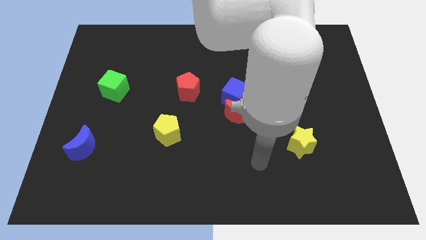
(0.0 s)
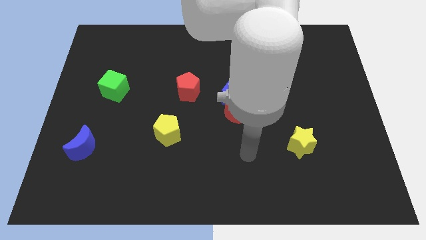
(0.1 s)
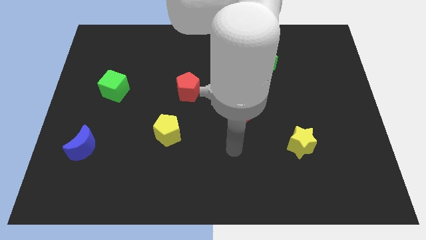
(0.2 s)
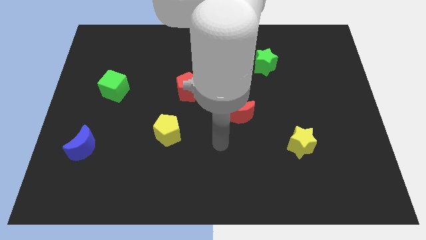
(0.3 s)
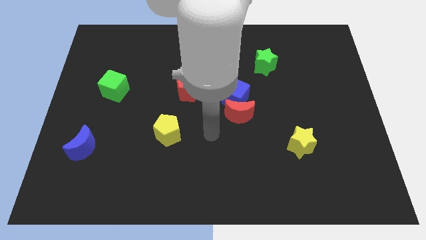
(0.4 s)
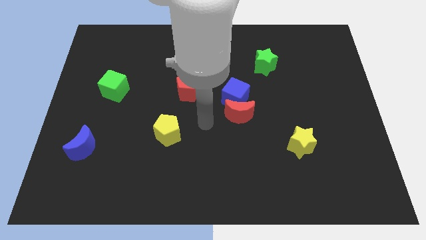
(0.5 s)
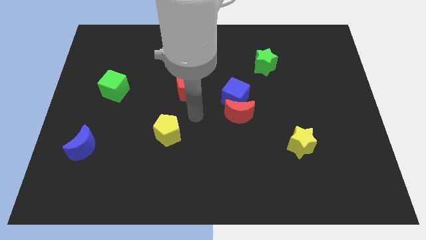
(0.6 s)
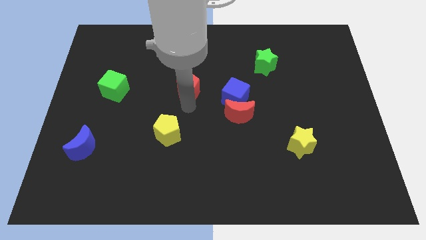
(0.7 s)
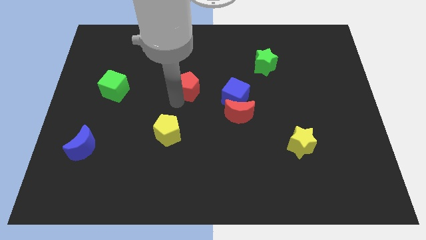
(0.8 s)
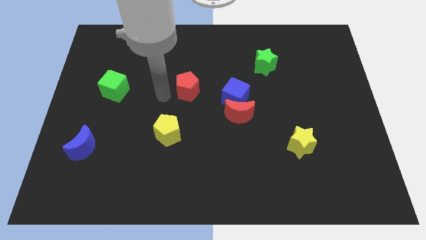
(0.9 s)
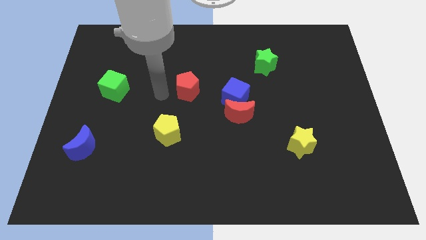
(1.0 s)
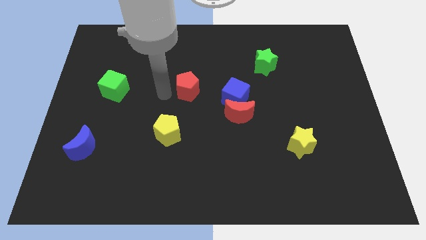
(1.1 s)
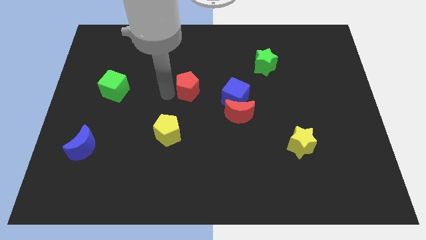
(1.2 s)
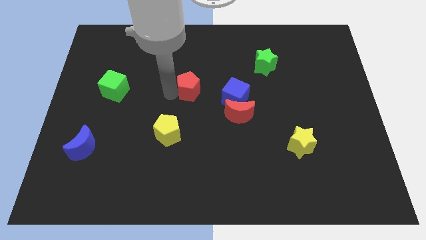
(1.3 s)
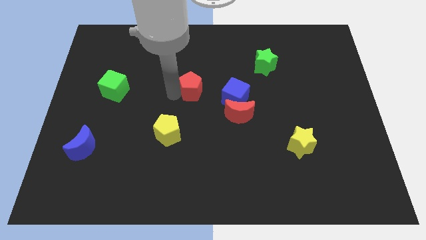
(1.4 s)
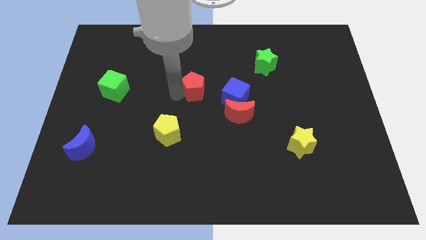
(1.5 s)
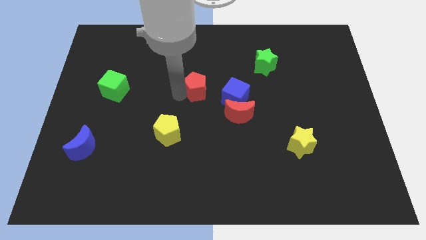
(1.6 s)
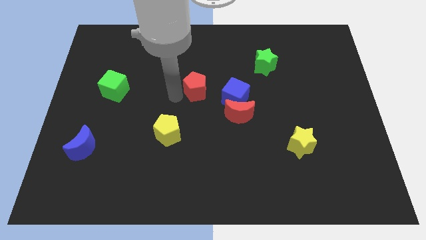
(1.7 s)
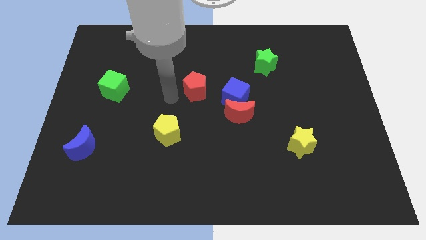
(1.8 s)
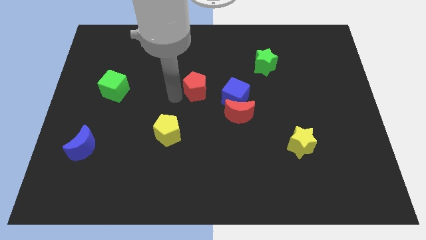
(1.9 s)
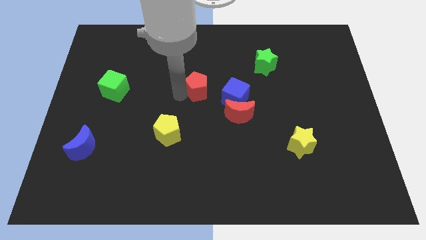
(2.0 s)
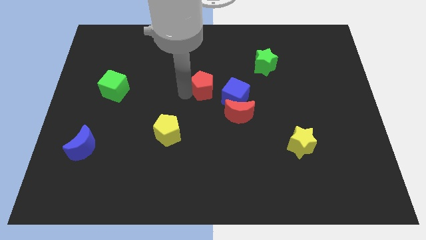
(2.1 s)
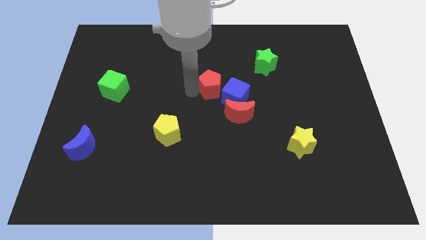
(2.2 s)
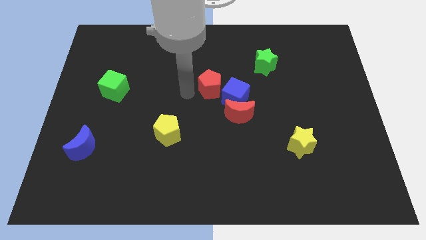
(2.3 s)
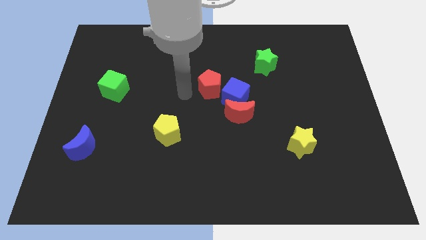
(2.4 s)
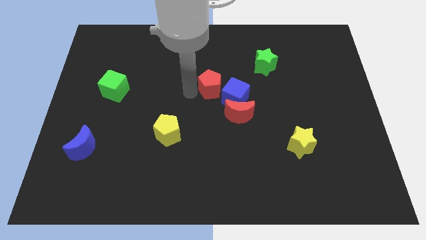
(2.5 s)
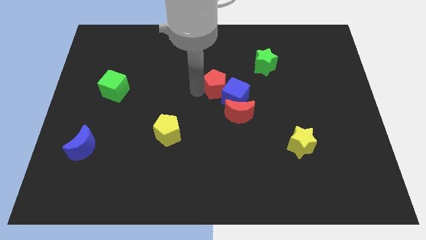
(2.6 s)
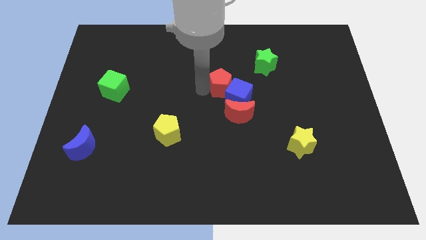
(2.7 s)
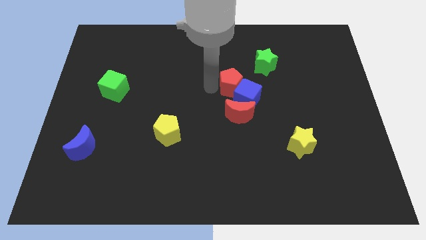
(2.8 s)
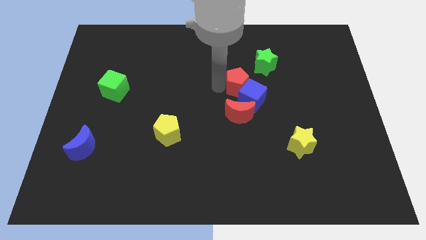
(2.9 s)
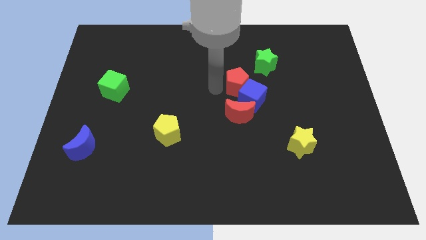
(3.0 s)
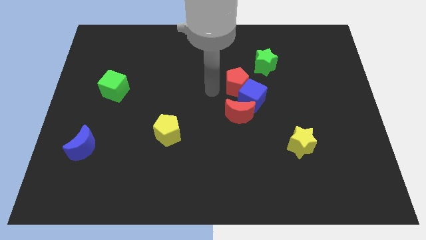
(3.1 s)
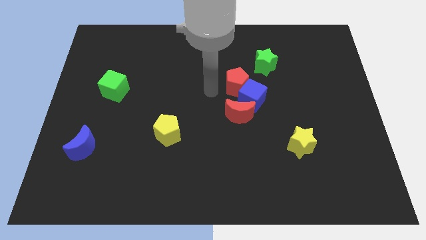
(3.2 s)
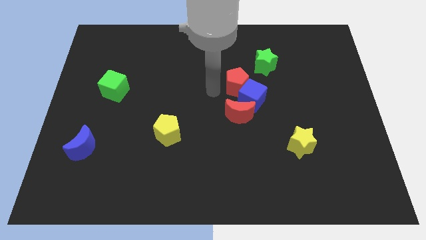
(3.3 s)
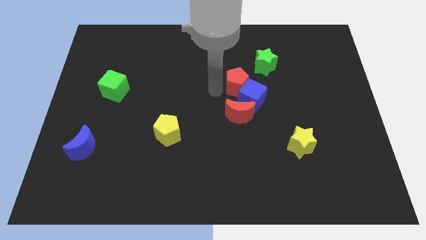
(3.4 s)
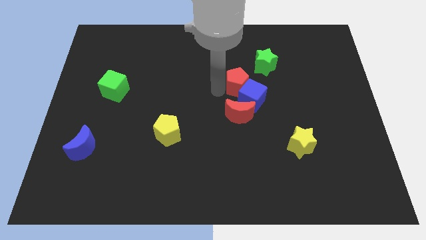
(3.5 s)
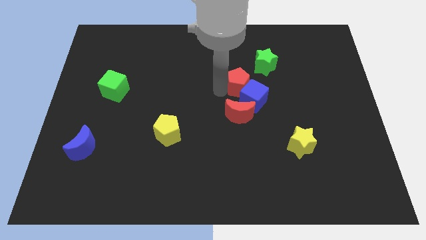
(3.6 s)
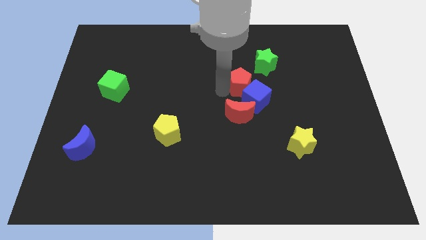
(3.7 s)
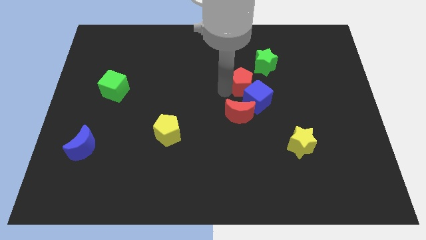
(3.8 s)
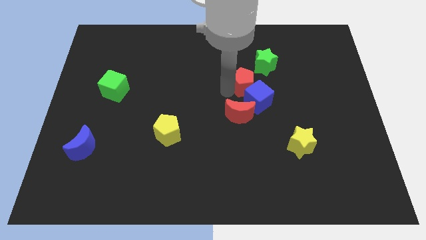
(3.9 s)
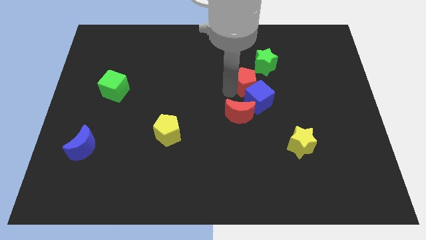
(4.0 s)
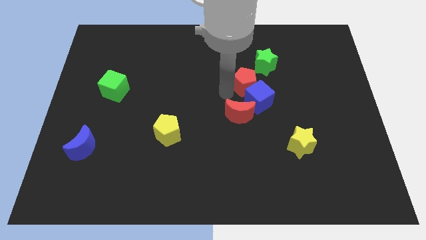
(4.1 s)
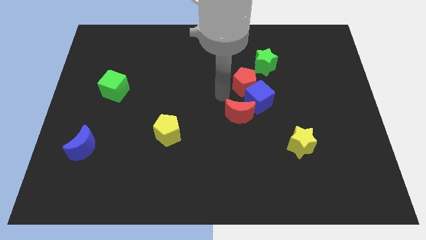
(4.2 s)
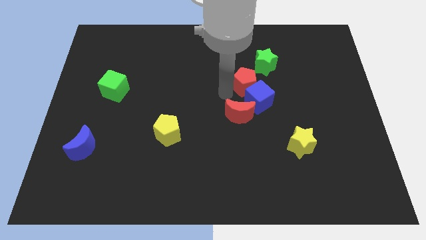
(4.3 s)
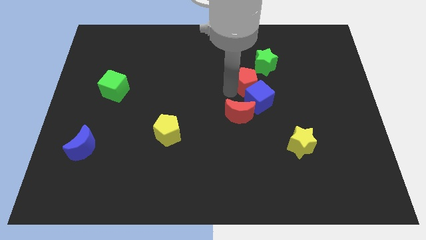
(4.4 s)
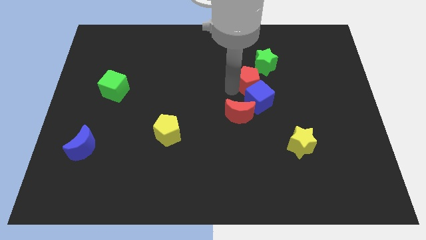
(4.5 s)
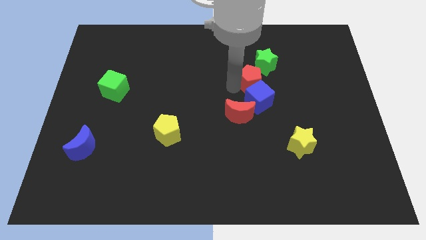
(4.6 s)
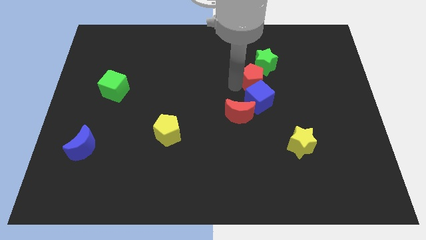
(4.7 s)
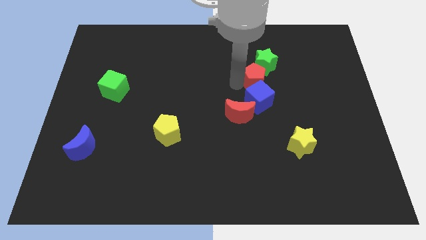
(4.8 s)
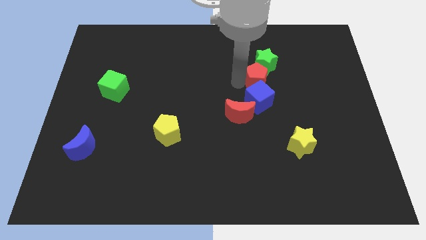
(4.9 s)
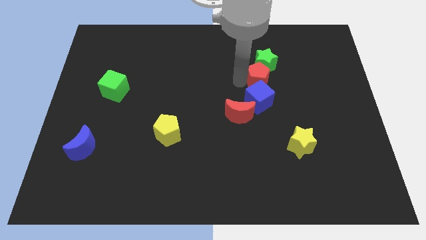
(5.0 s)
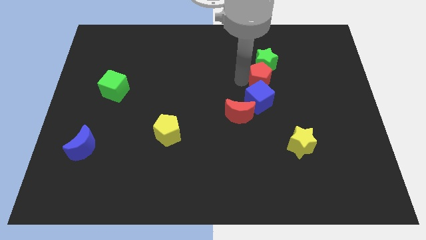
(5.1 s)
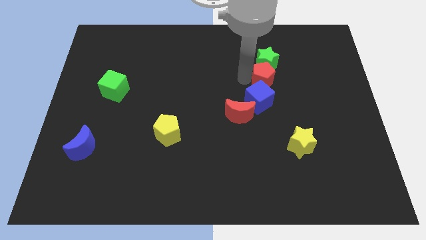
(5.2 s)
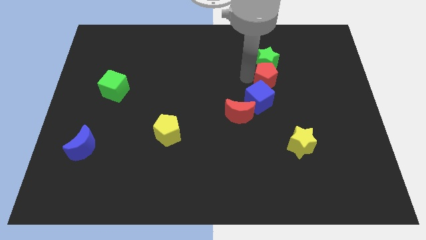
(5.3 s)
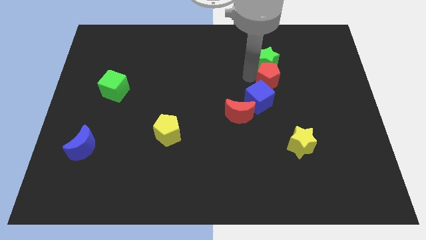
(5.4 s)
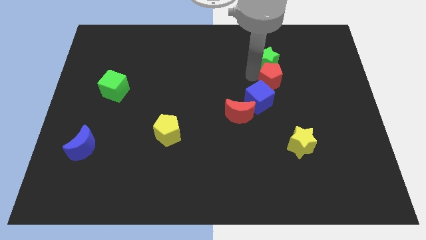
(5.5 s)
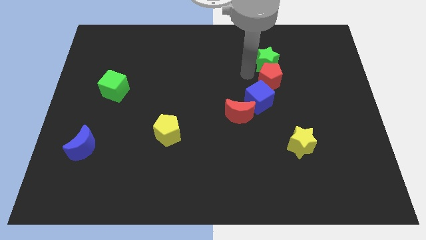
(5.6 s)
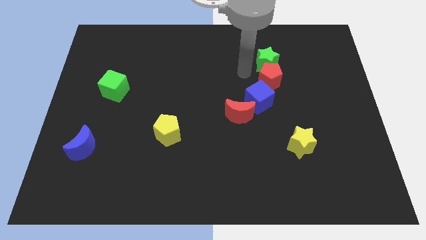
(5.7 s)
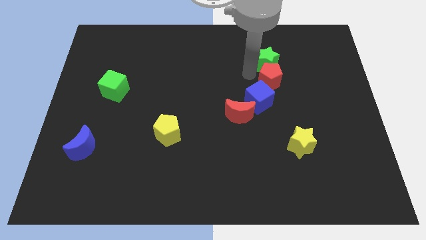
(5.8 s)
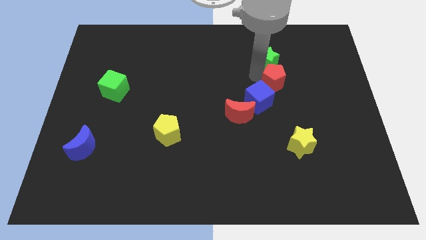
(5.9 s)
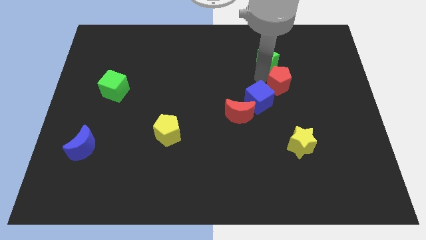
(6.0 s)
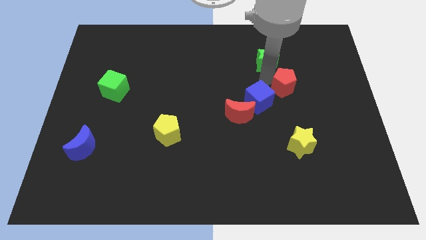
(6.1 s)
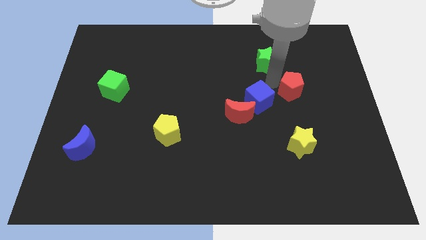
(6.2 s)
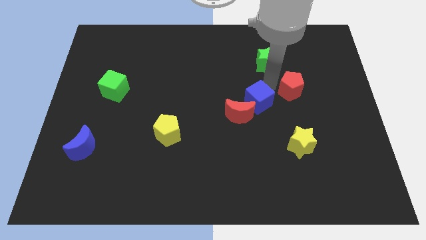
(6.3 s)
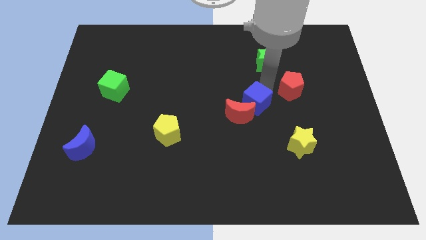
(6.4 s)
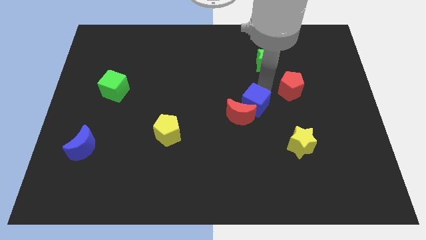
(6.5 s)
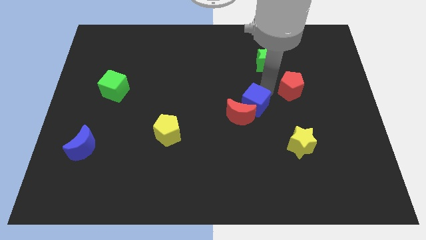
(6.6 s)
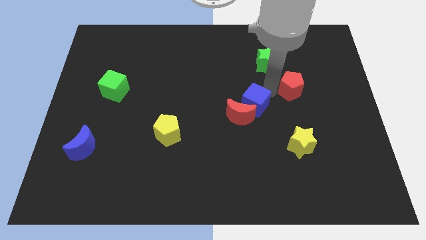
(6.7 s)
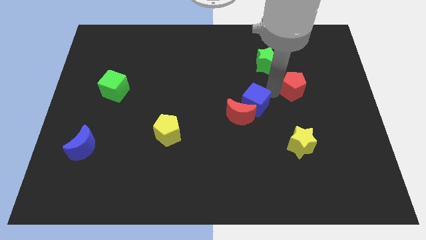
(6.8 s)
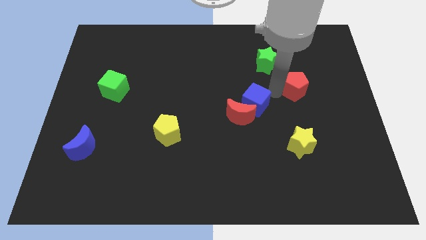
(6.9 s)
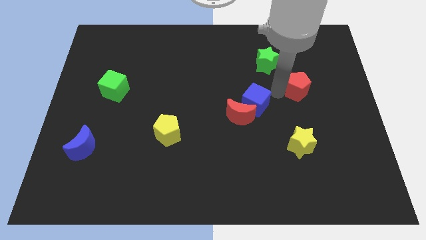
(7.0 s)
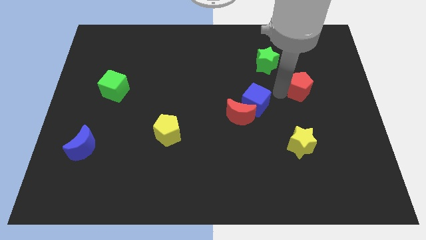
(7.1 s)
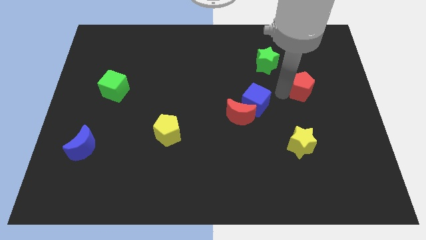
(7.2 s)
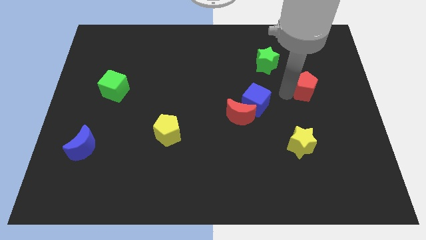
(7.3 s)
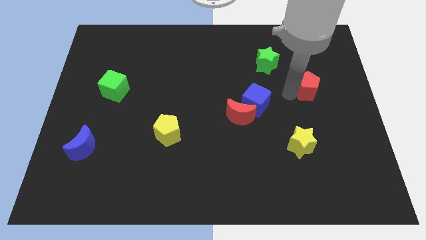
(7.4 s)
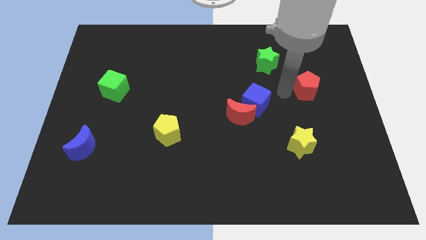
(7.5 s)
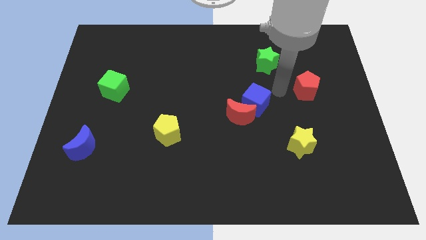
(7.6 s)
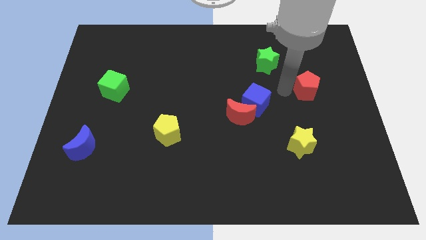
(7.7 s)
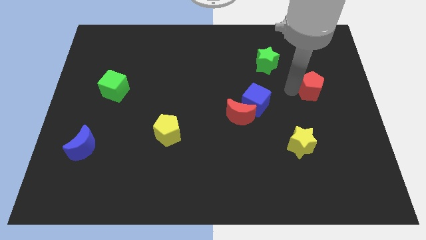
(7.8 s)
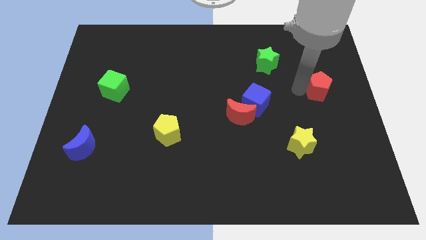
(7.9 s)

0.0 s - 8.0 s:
move the red pentagon to the center right
